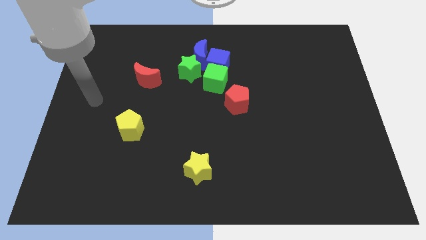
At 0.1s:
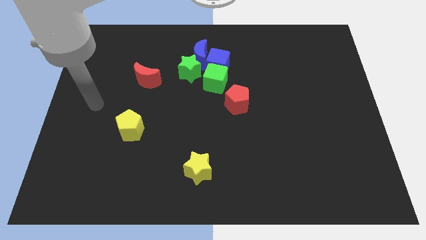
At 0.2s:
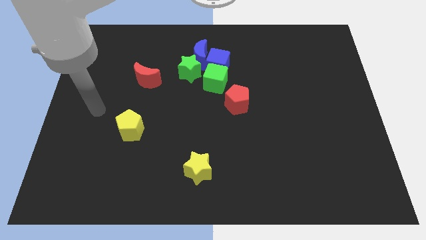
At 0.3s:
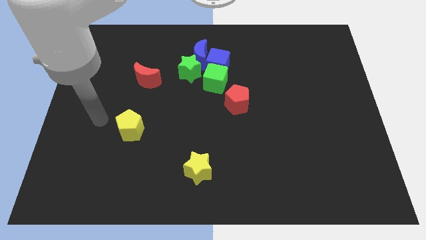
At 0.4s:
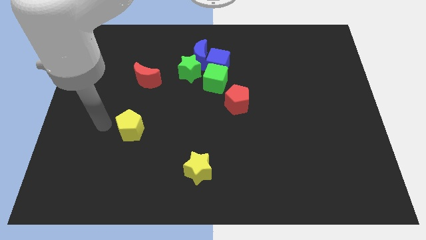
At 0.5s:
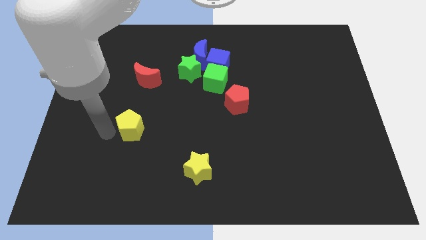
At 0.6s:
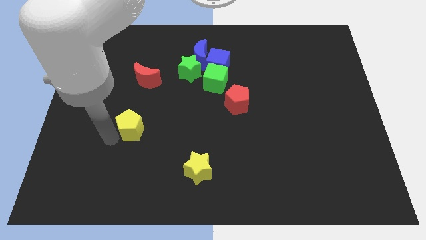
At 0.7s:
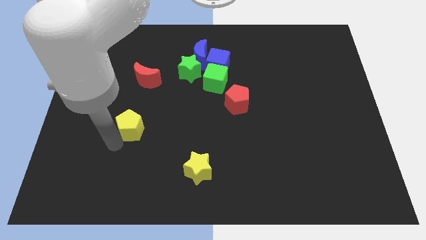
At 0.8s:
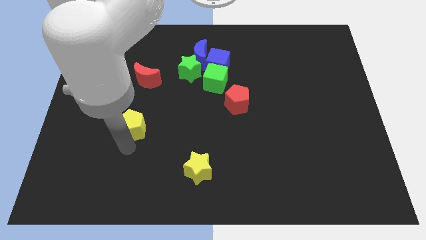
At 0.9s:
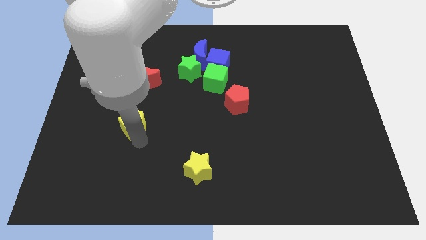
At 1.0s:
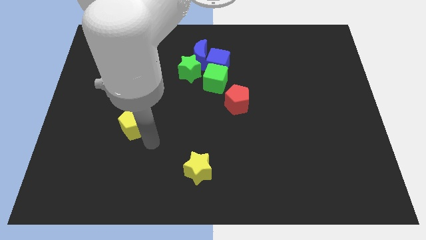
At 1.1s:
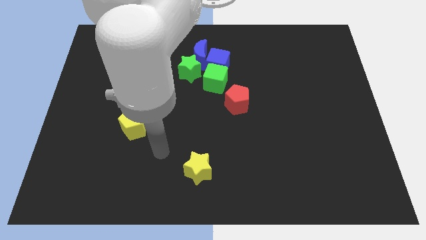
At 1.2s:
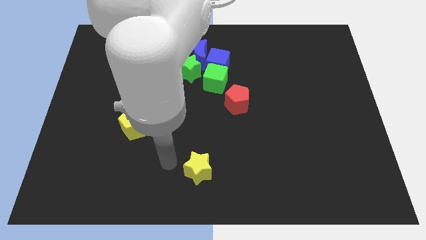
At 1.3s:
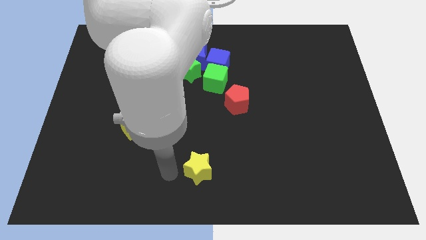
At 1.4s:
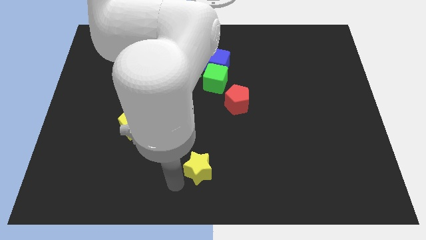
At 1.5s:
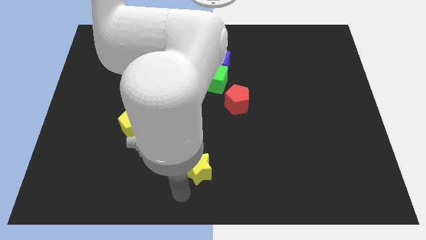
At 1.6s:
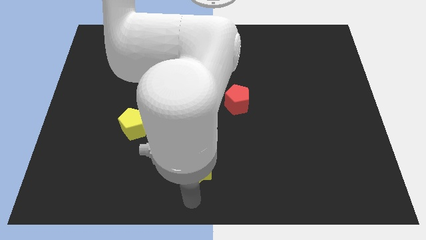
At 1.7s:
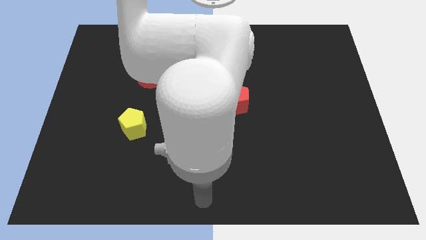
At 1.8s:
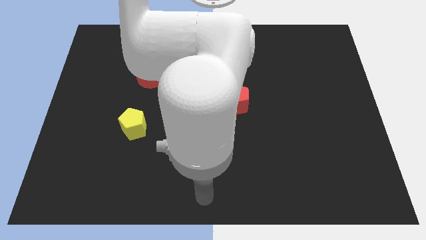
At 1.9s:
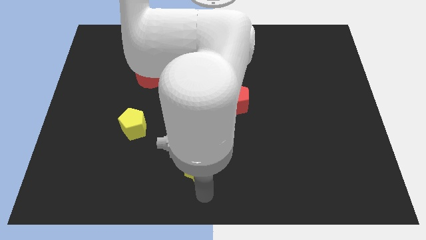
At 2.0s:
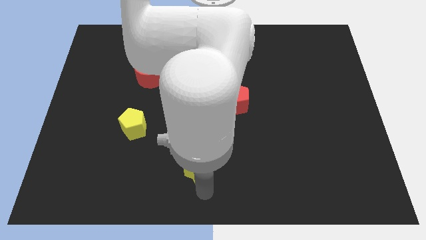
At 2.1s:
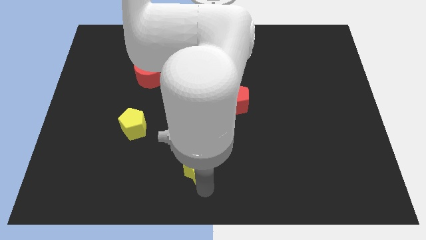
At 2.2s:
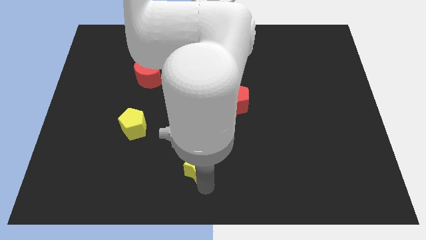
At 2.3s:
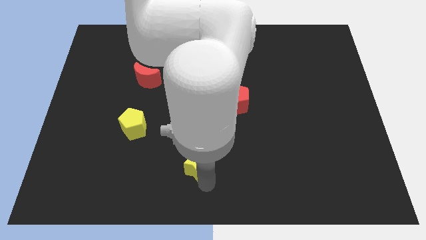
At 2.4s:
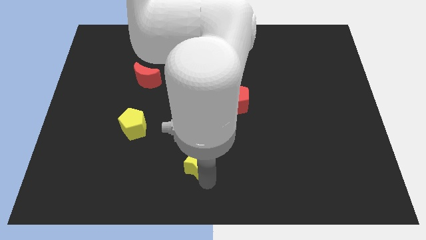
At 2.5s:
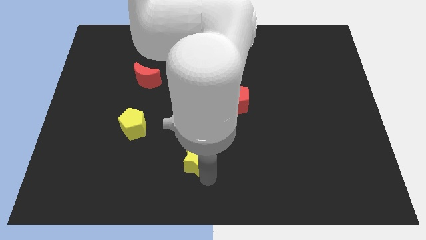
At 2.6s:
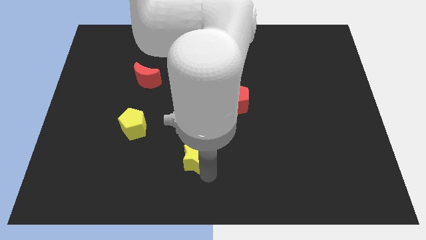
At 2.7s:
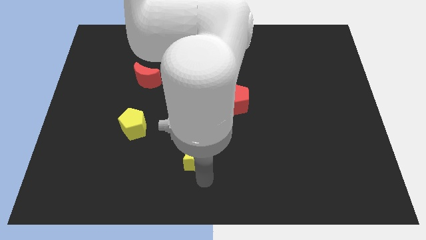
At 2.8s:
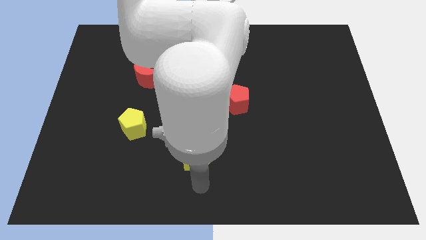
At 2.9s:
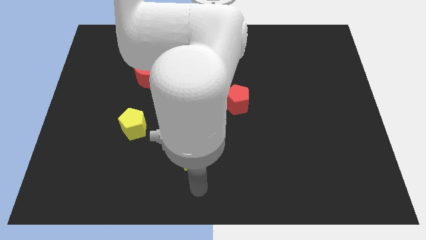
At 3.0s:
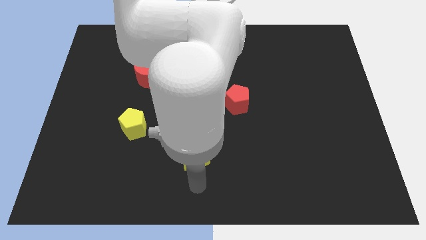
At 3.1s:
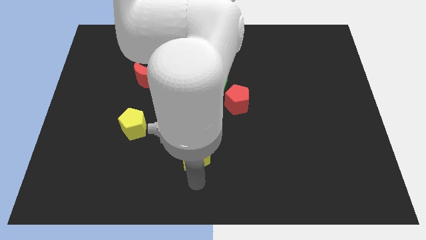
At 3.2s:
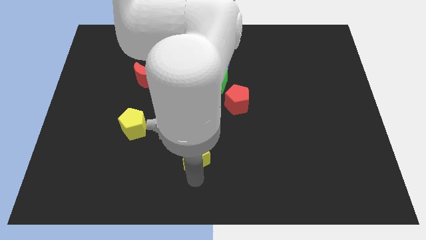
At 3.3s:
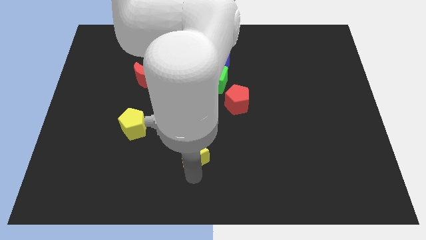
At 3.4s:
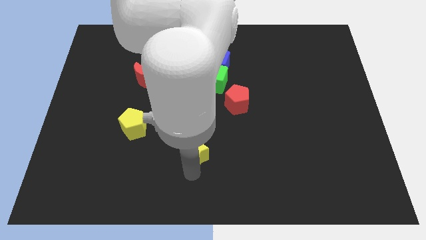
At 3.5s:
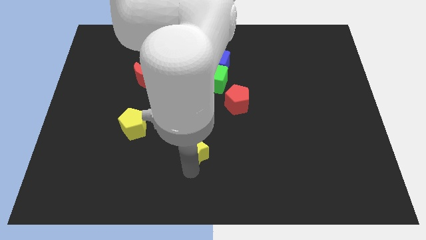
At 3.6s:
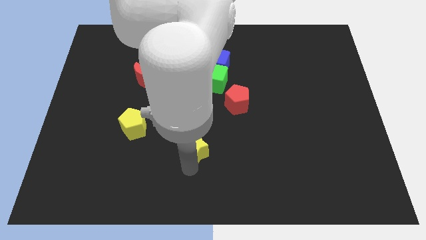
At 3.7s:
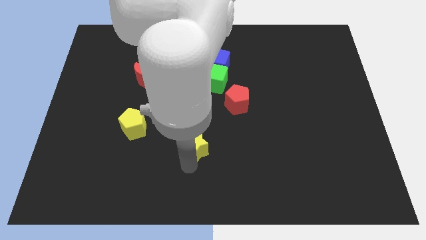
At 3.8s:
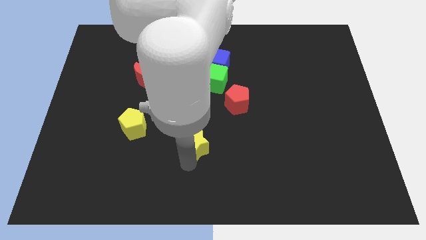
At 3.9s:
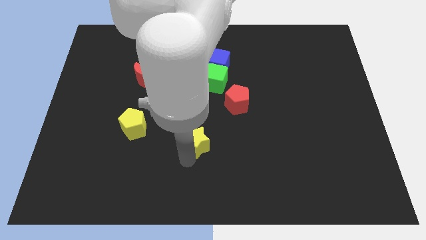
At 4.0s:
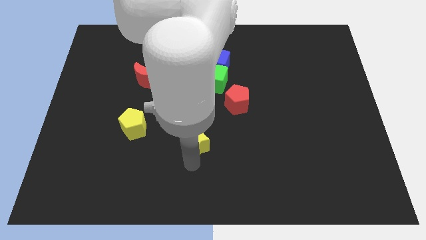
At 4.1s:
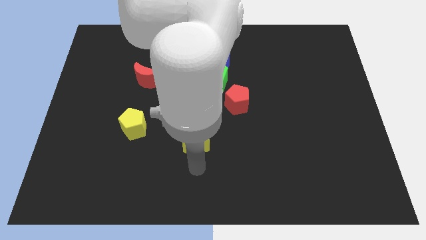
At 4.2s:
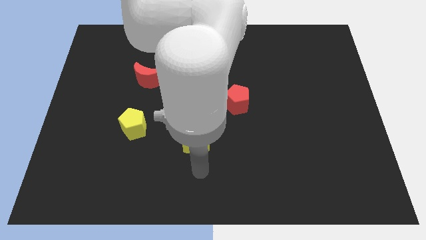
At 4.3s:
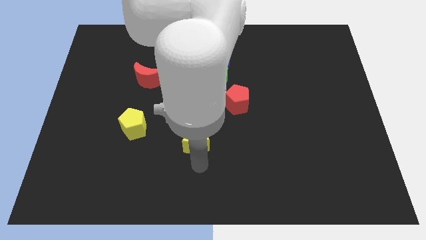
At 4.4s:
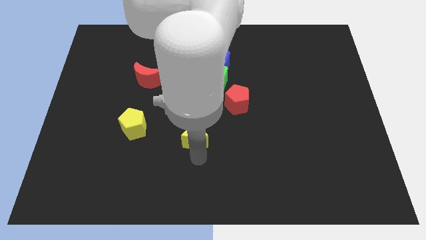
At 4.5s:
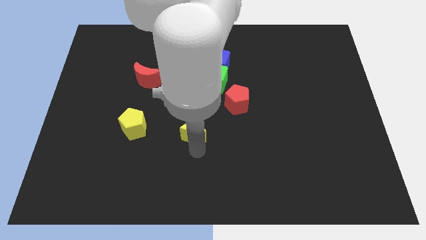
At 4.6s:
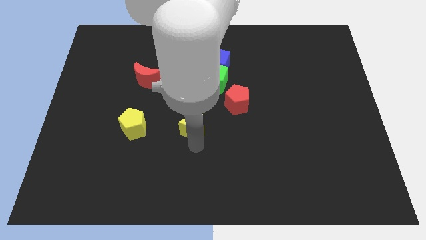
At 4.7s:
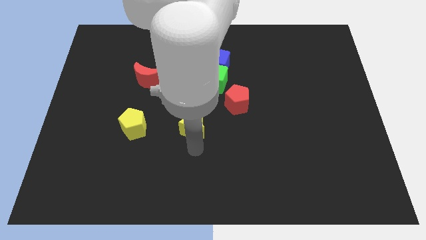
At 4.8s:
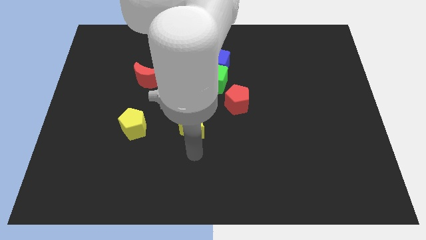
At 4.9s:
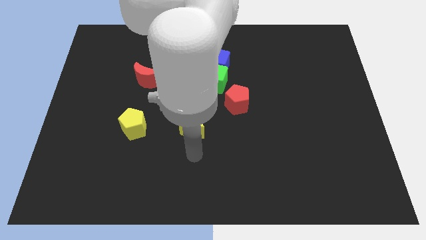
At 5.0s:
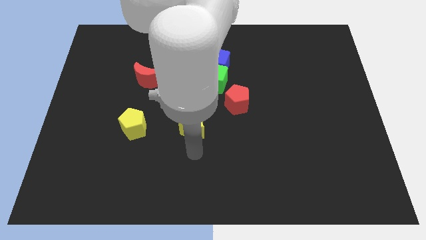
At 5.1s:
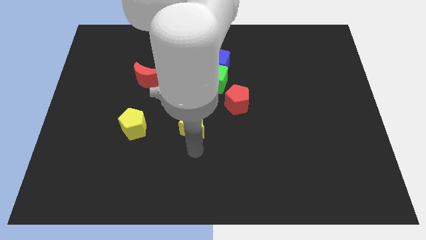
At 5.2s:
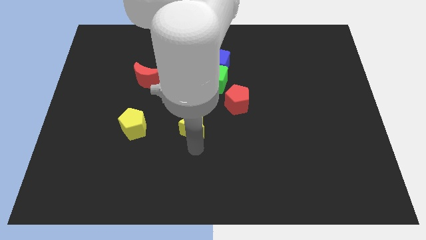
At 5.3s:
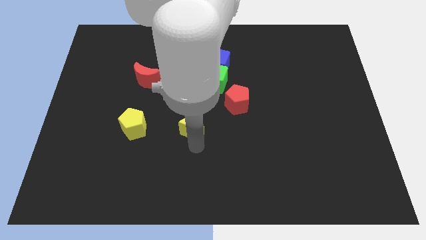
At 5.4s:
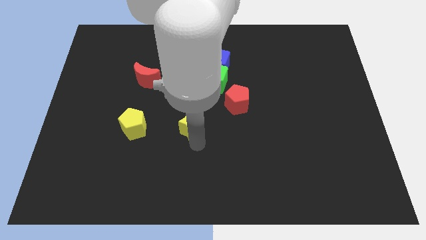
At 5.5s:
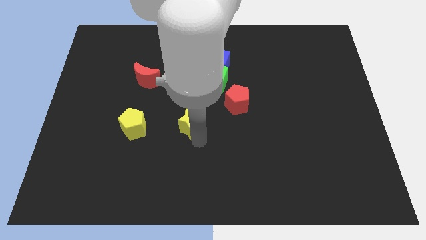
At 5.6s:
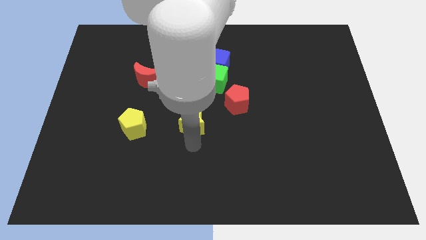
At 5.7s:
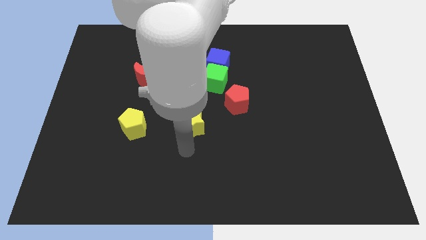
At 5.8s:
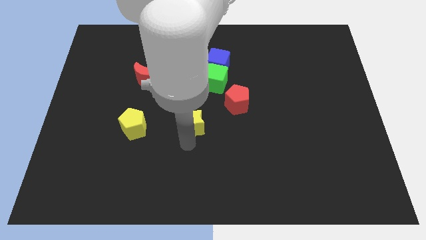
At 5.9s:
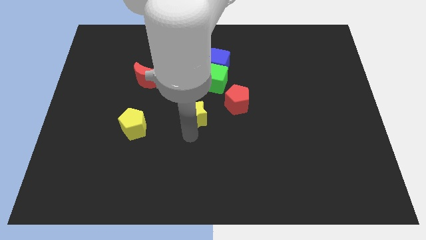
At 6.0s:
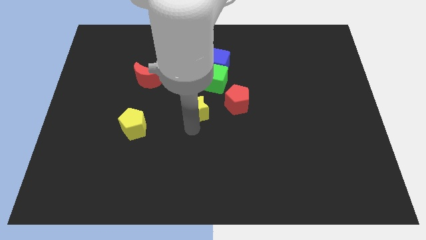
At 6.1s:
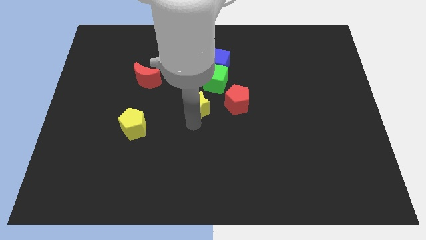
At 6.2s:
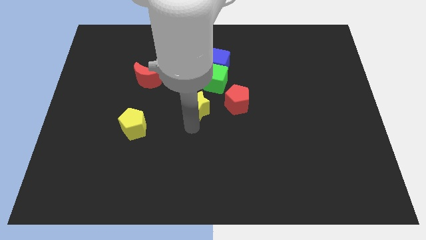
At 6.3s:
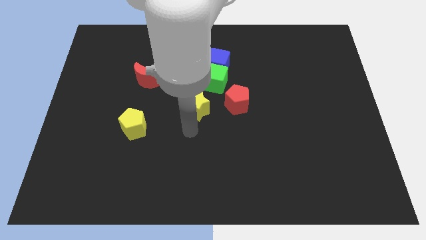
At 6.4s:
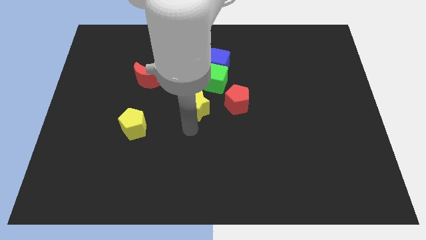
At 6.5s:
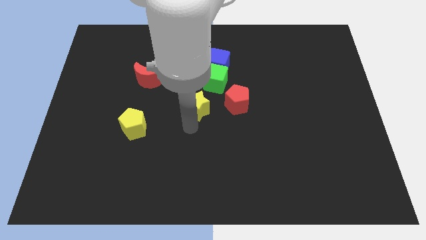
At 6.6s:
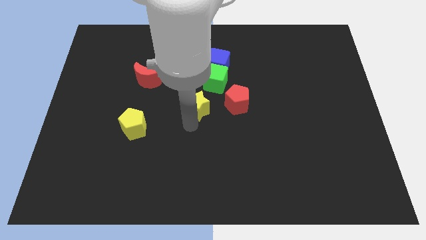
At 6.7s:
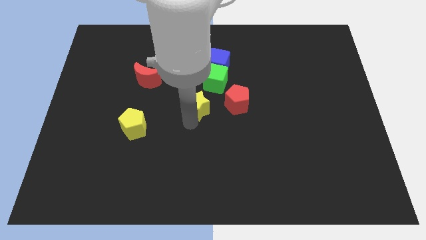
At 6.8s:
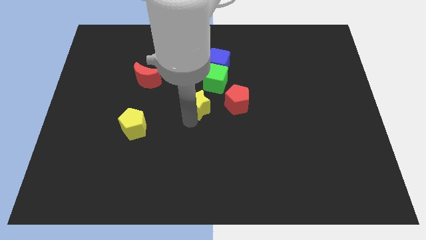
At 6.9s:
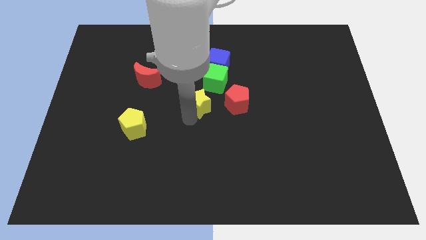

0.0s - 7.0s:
put the yellow star to the bottom of the blue moon
